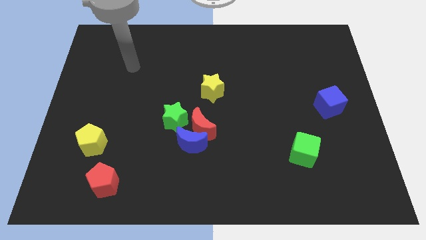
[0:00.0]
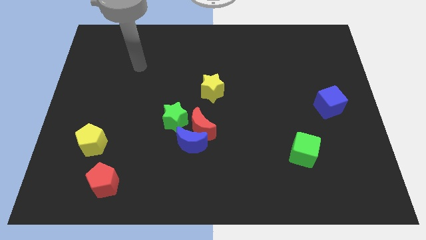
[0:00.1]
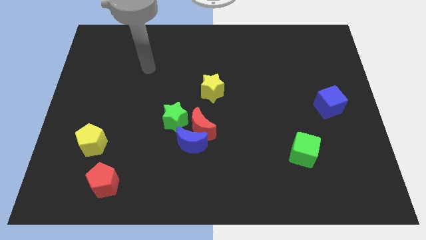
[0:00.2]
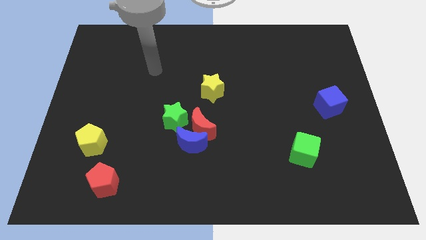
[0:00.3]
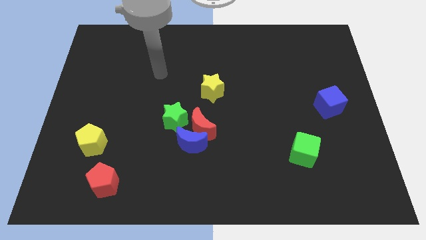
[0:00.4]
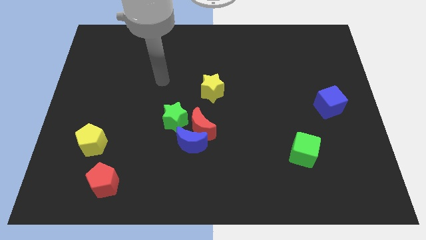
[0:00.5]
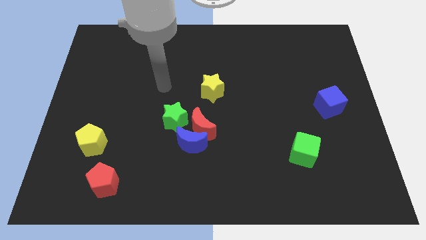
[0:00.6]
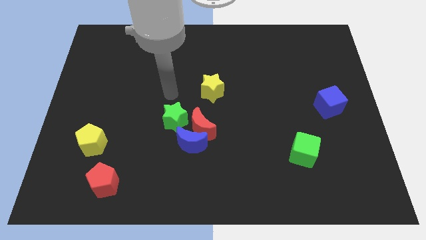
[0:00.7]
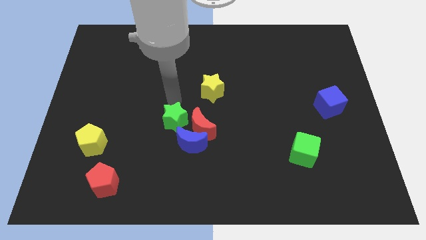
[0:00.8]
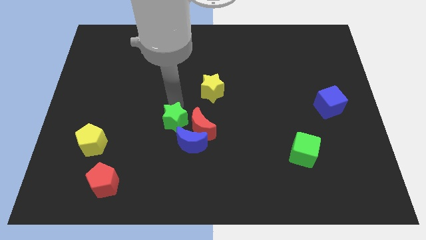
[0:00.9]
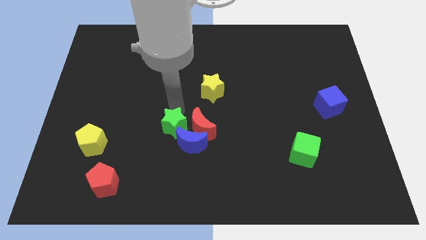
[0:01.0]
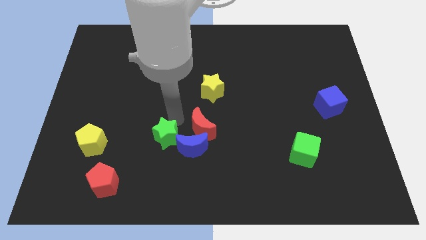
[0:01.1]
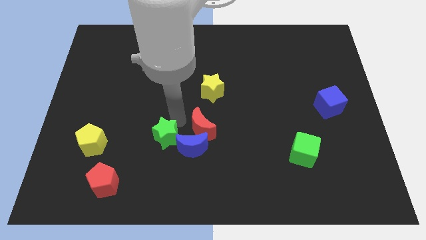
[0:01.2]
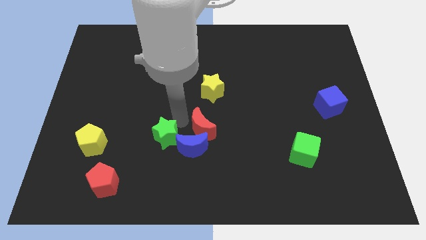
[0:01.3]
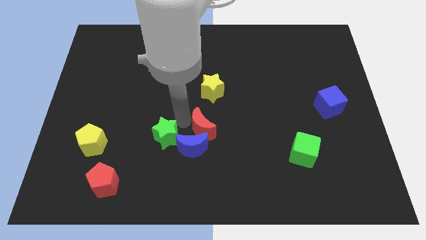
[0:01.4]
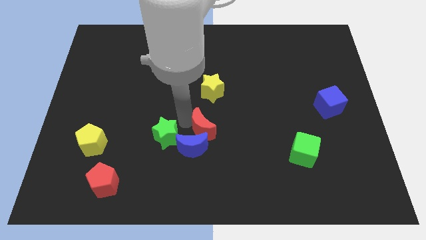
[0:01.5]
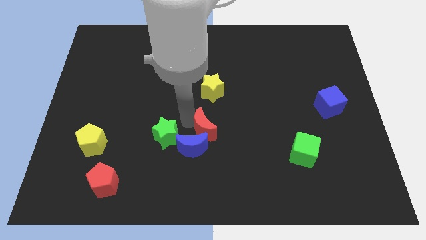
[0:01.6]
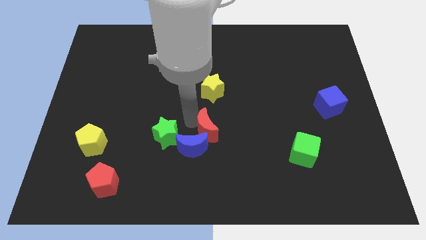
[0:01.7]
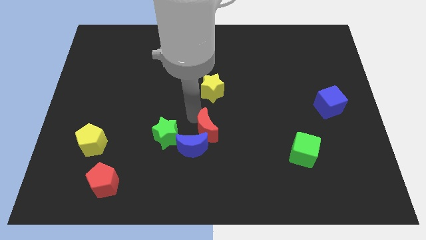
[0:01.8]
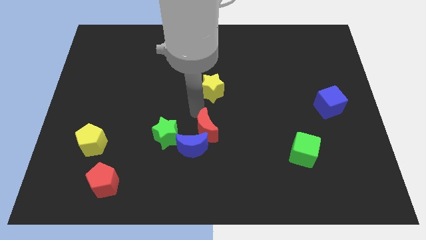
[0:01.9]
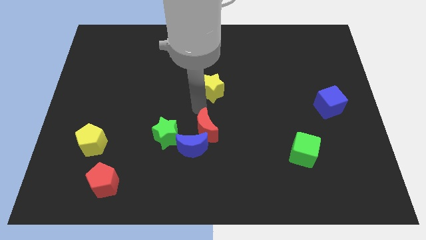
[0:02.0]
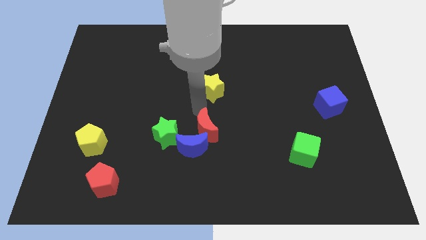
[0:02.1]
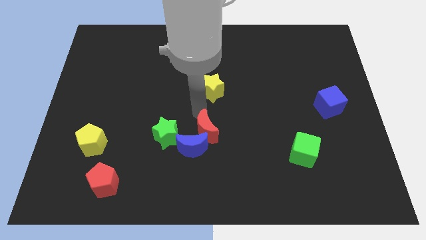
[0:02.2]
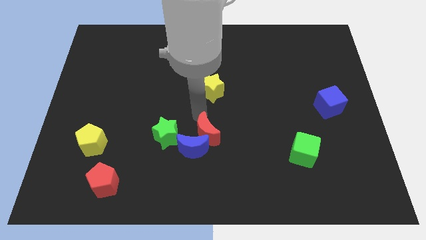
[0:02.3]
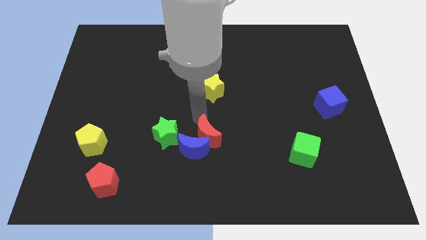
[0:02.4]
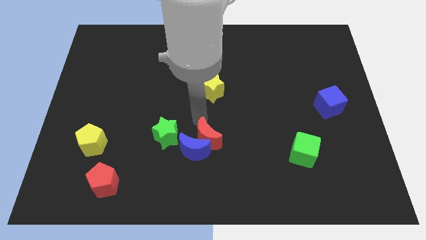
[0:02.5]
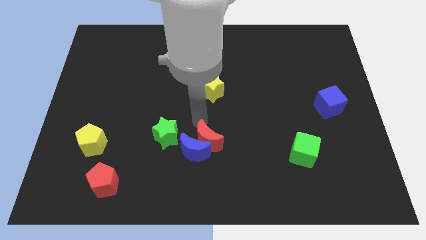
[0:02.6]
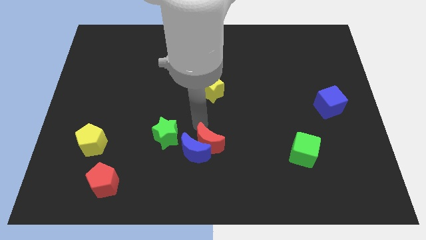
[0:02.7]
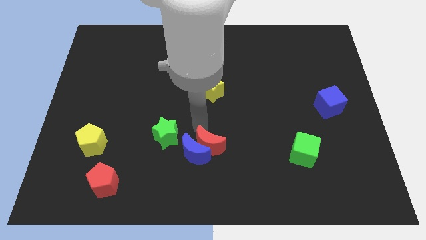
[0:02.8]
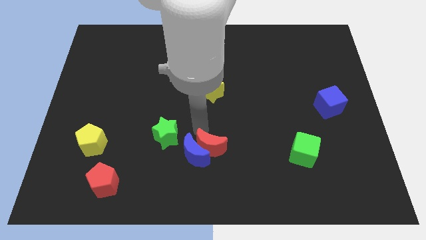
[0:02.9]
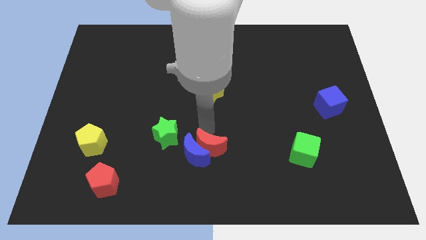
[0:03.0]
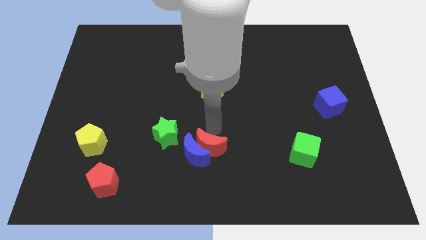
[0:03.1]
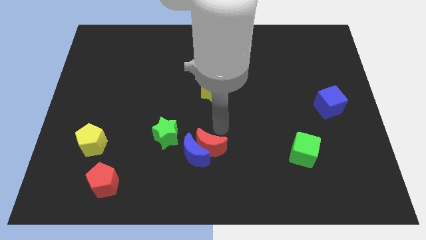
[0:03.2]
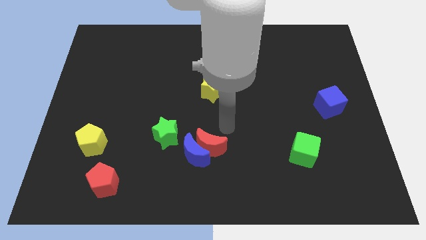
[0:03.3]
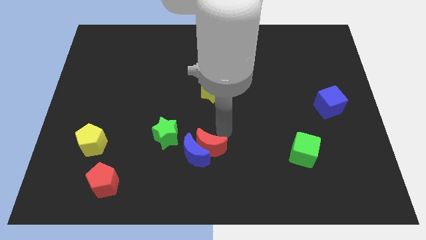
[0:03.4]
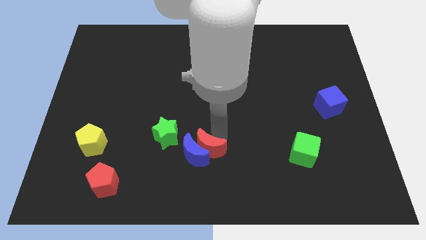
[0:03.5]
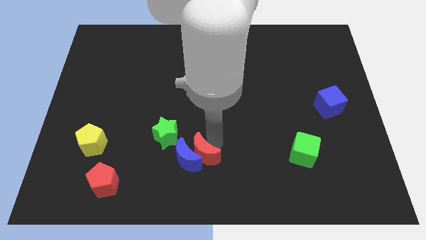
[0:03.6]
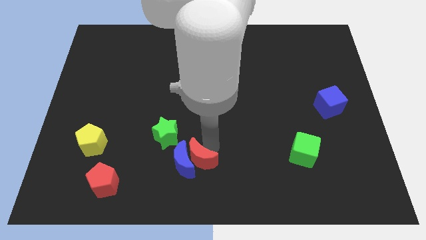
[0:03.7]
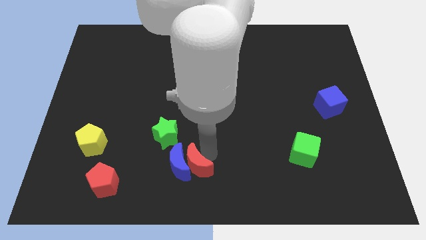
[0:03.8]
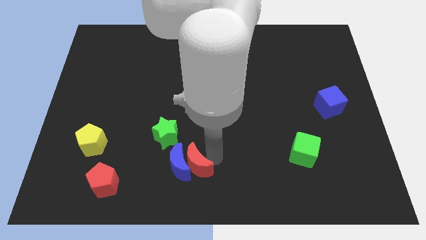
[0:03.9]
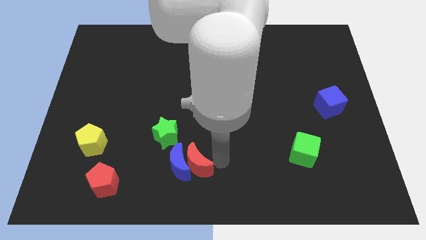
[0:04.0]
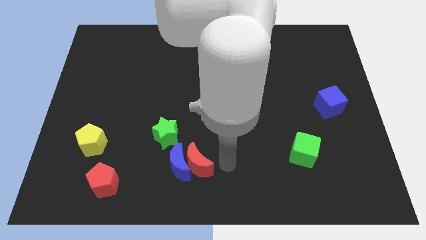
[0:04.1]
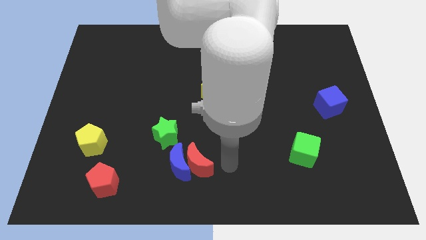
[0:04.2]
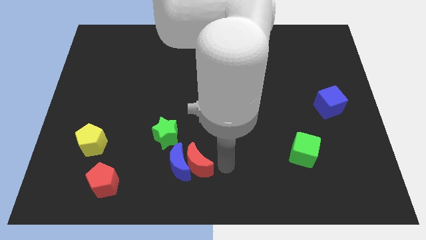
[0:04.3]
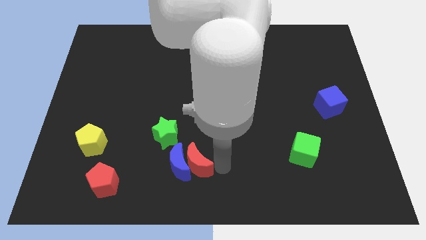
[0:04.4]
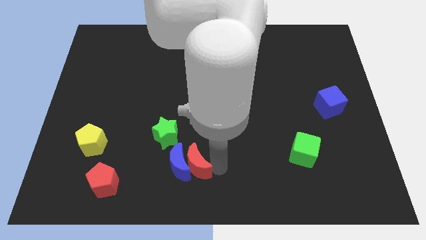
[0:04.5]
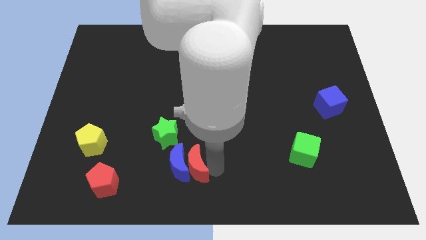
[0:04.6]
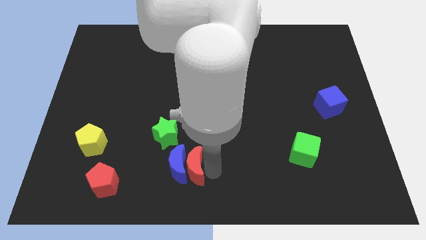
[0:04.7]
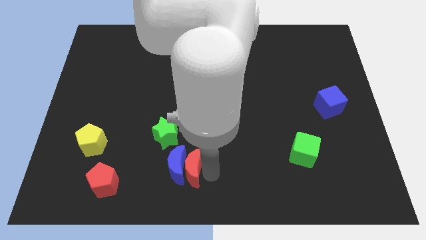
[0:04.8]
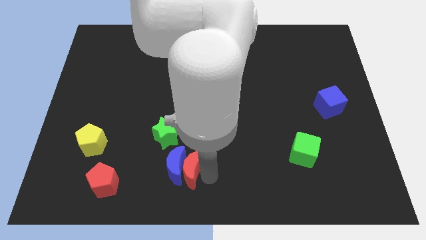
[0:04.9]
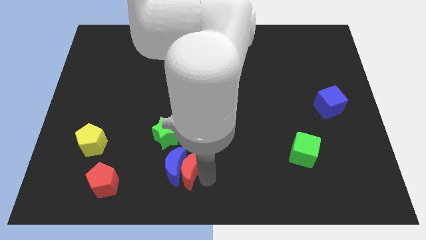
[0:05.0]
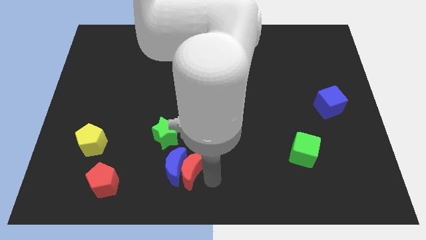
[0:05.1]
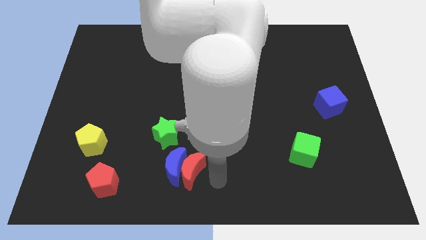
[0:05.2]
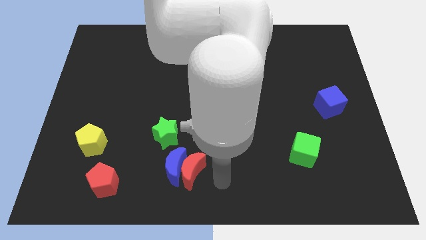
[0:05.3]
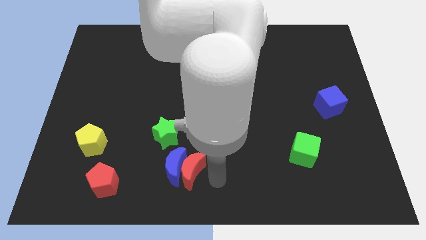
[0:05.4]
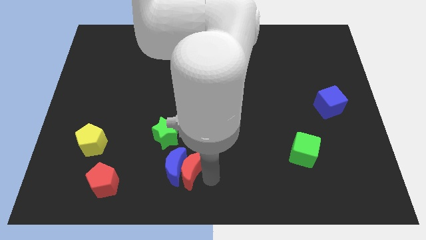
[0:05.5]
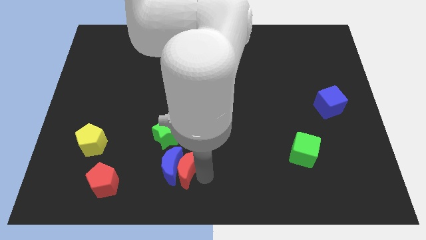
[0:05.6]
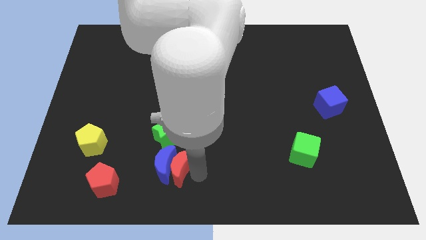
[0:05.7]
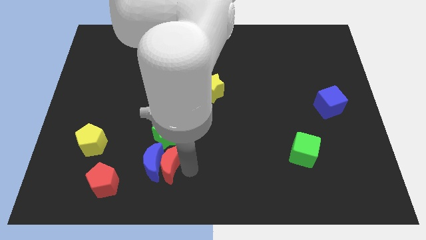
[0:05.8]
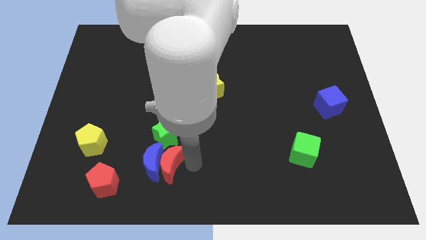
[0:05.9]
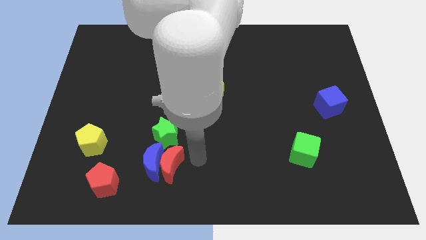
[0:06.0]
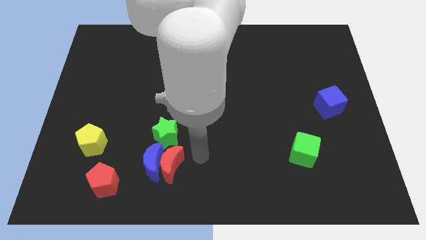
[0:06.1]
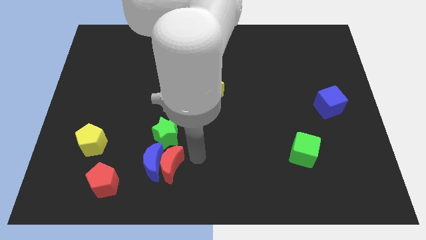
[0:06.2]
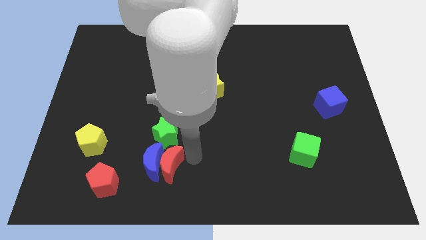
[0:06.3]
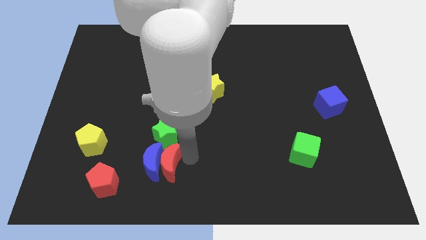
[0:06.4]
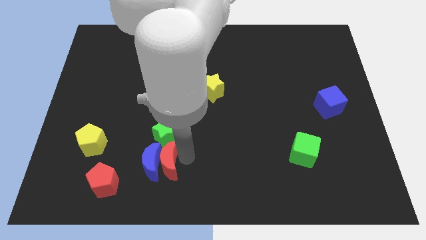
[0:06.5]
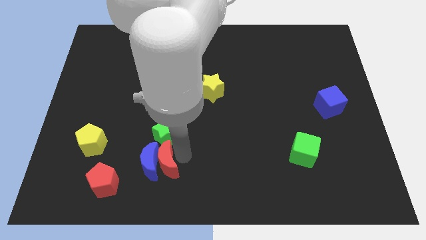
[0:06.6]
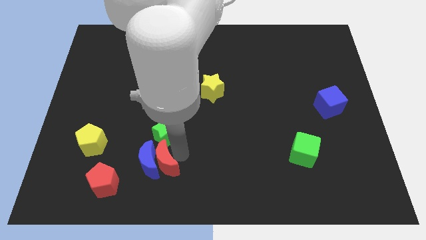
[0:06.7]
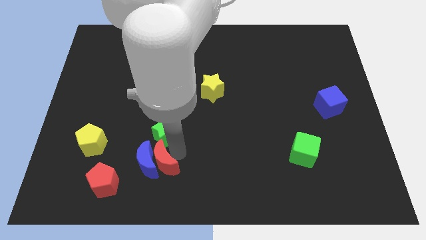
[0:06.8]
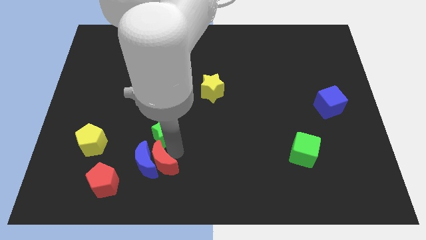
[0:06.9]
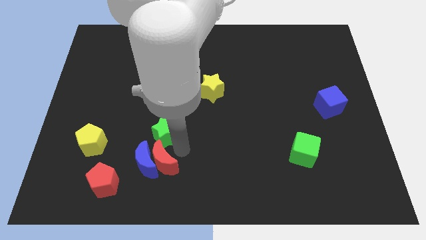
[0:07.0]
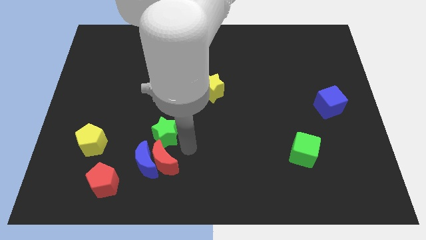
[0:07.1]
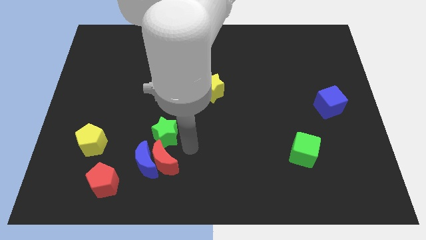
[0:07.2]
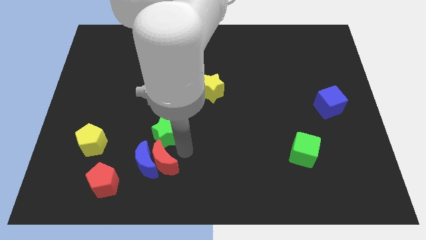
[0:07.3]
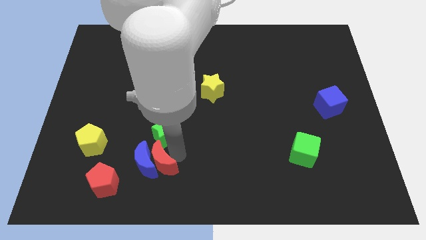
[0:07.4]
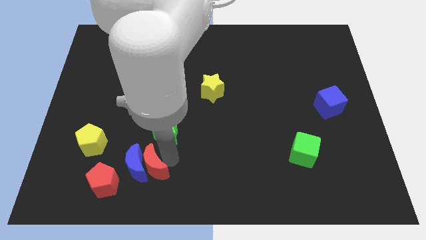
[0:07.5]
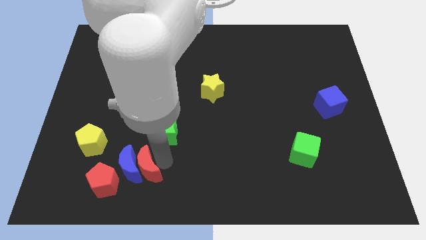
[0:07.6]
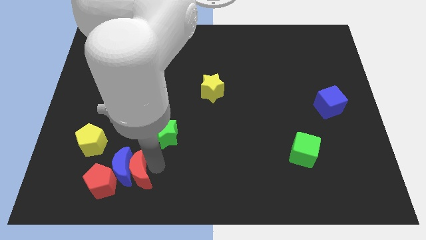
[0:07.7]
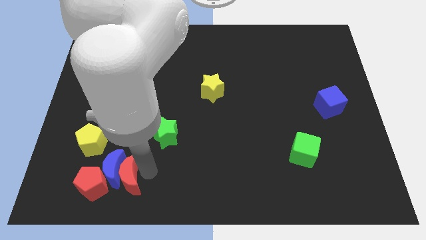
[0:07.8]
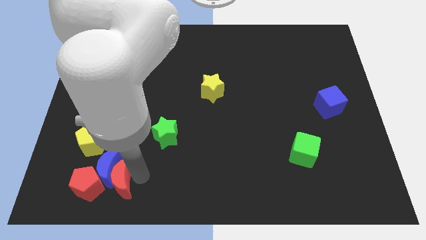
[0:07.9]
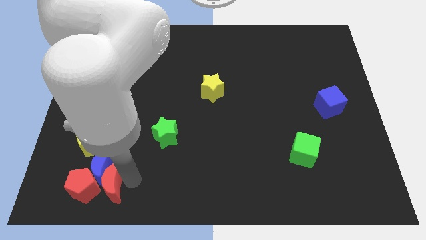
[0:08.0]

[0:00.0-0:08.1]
move the red moon close to the red pentagon
